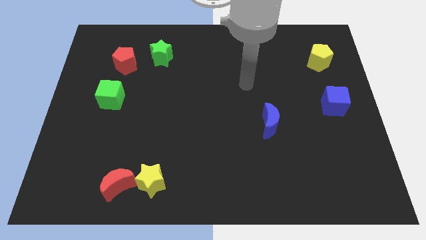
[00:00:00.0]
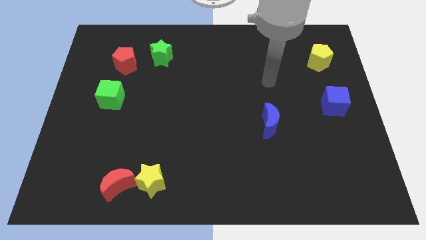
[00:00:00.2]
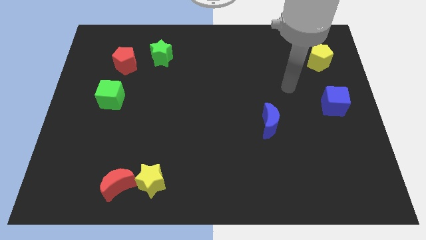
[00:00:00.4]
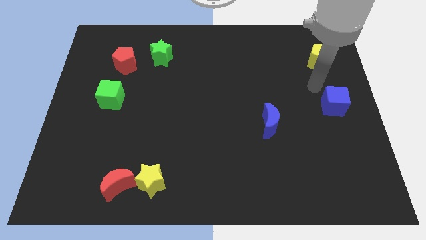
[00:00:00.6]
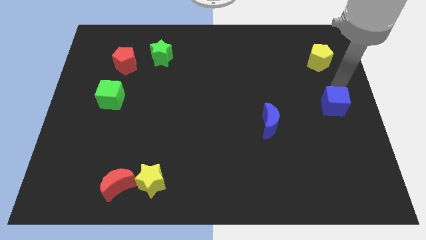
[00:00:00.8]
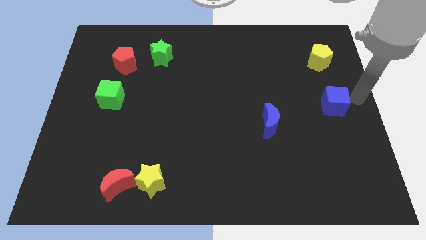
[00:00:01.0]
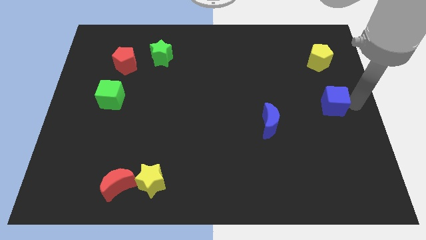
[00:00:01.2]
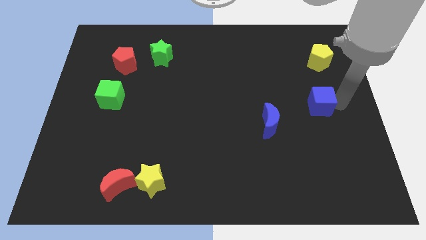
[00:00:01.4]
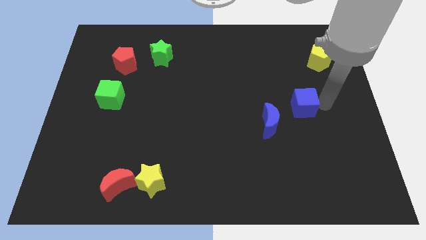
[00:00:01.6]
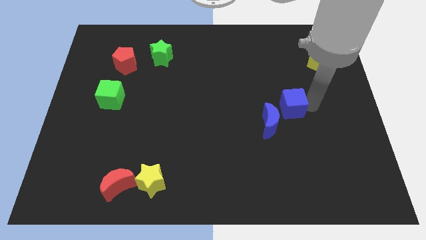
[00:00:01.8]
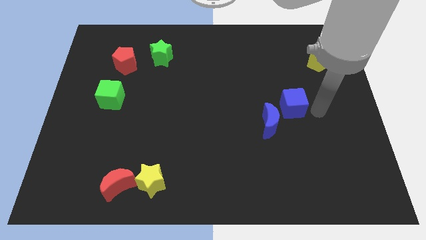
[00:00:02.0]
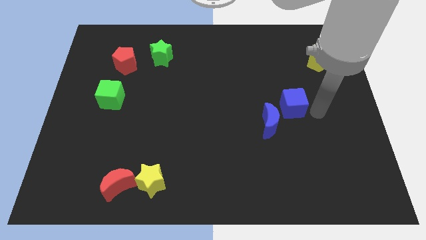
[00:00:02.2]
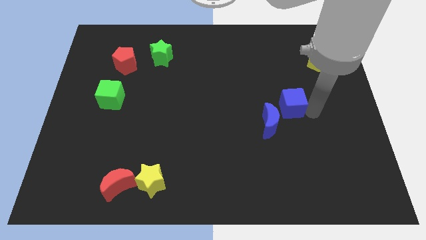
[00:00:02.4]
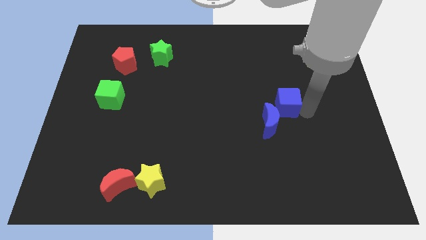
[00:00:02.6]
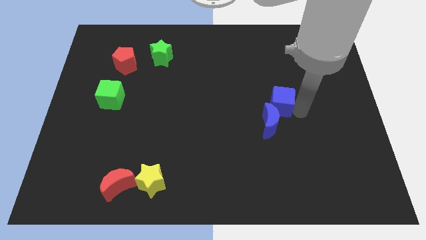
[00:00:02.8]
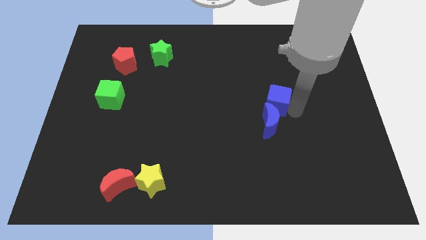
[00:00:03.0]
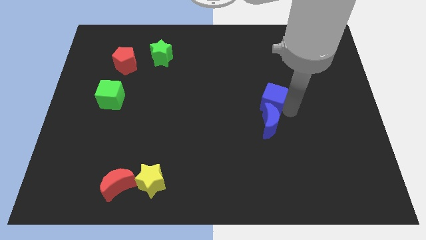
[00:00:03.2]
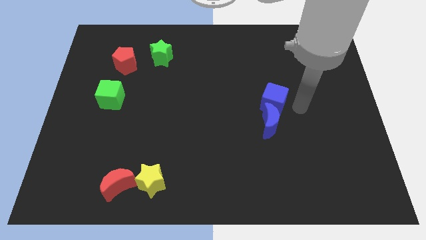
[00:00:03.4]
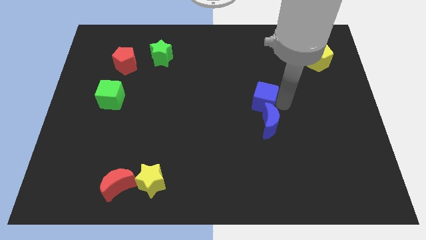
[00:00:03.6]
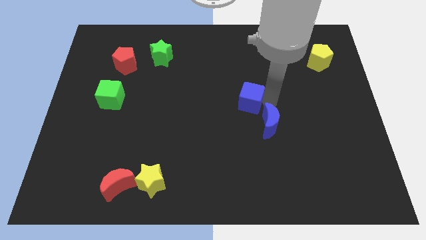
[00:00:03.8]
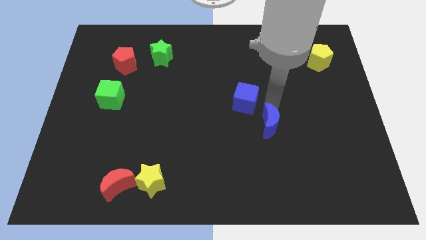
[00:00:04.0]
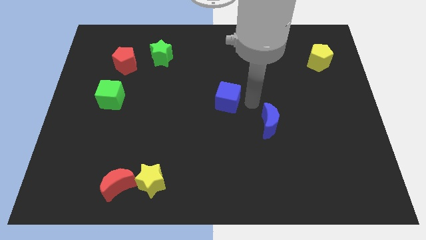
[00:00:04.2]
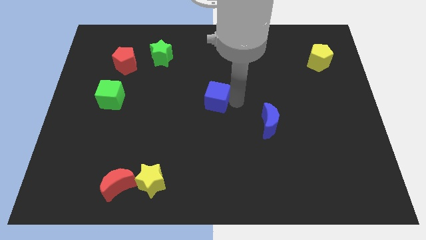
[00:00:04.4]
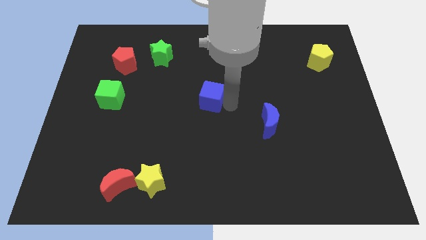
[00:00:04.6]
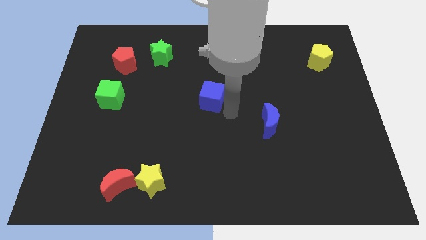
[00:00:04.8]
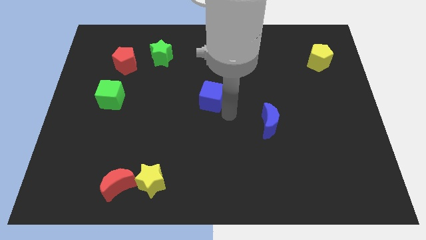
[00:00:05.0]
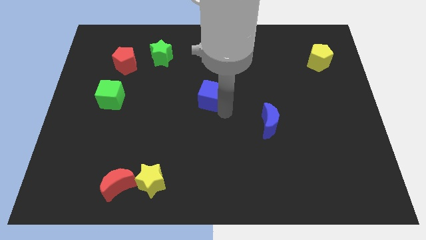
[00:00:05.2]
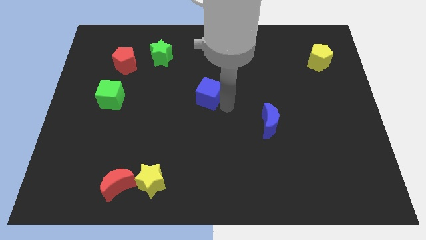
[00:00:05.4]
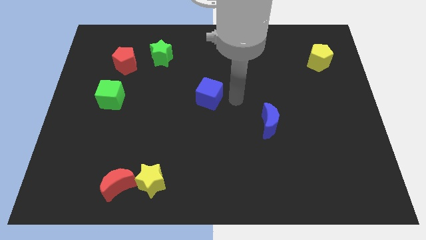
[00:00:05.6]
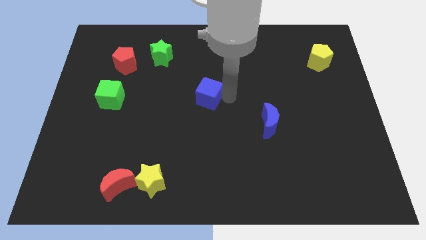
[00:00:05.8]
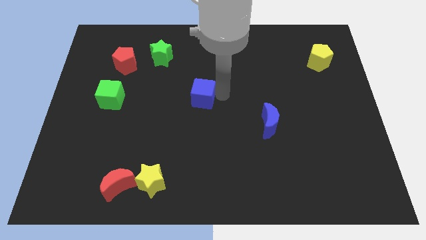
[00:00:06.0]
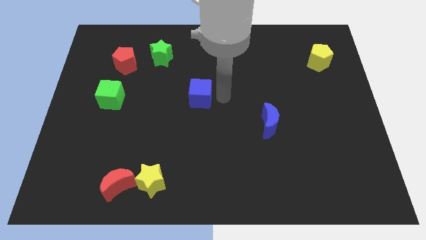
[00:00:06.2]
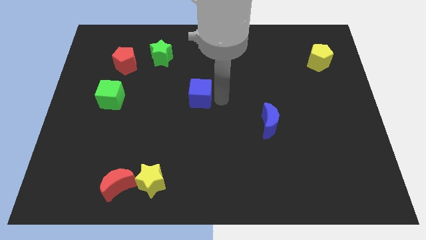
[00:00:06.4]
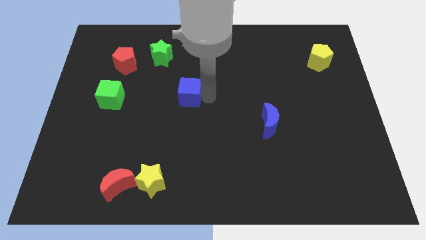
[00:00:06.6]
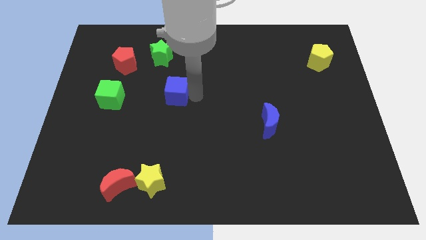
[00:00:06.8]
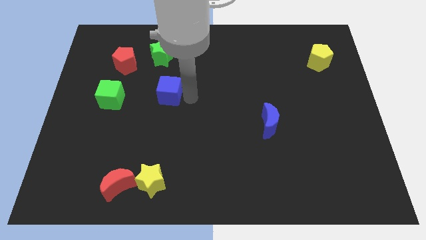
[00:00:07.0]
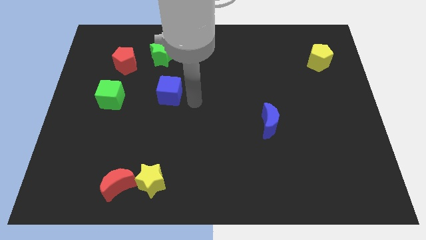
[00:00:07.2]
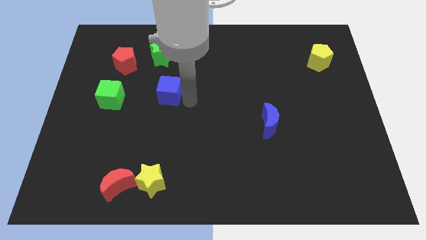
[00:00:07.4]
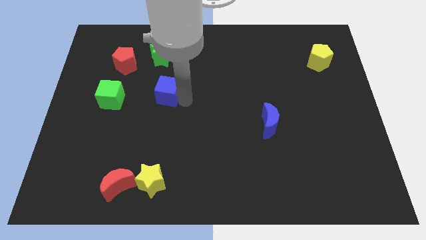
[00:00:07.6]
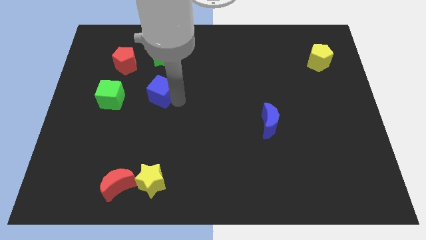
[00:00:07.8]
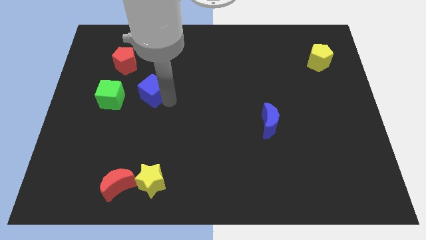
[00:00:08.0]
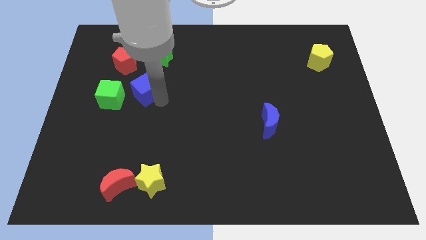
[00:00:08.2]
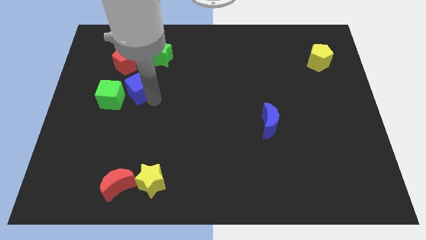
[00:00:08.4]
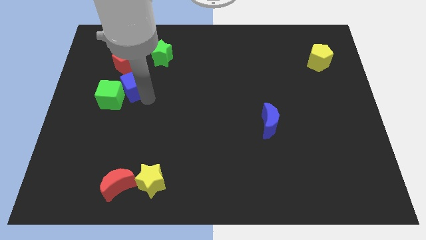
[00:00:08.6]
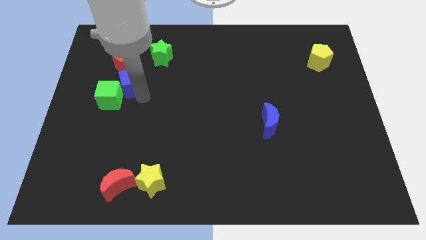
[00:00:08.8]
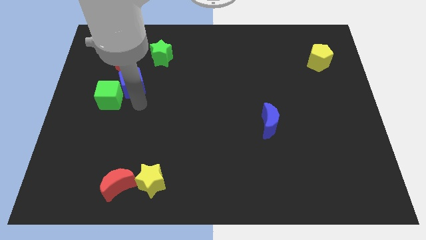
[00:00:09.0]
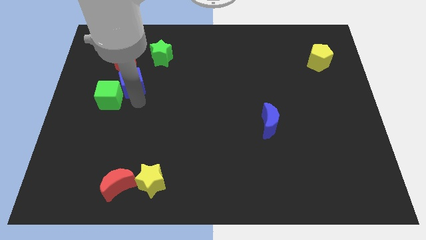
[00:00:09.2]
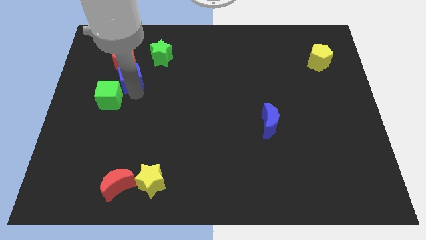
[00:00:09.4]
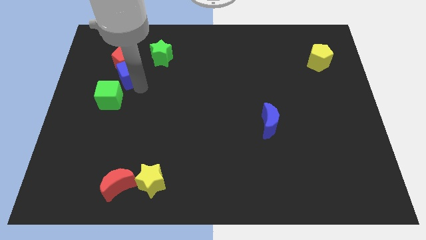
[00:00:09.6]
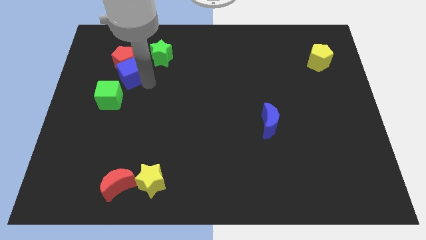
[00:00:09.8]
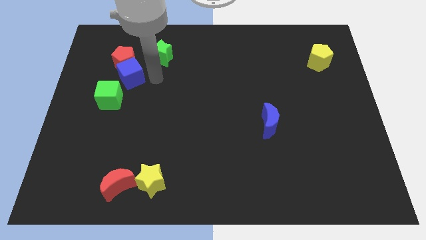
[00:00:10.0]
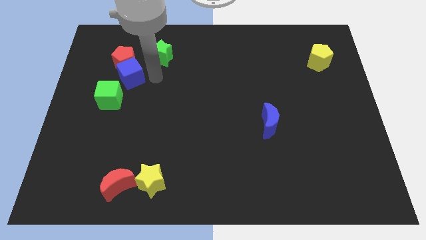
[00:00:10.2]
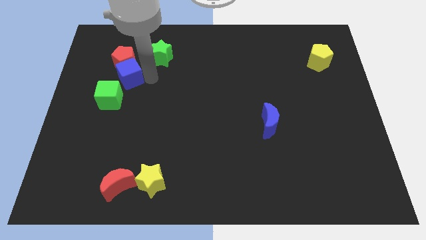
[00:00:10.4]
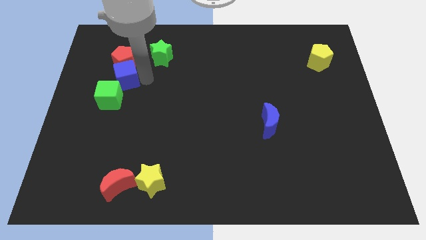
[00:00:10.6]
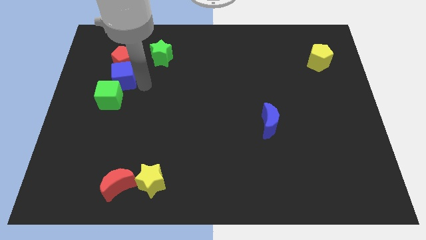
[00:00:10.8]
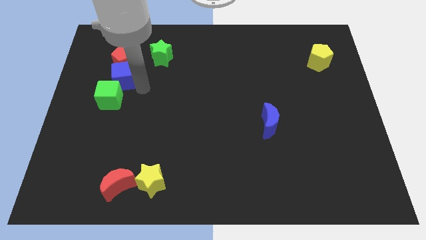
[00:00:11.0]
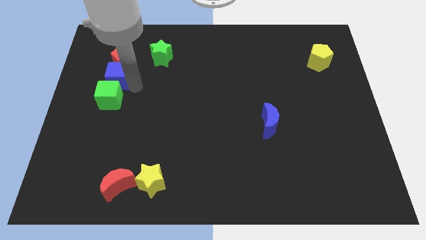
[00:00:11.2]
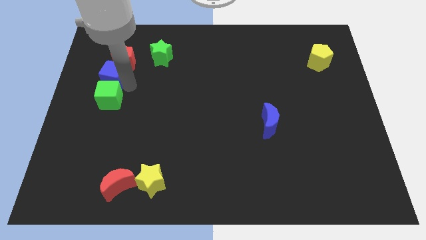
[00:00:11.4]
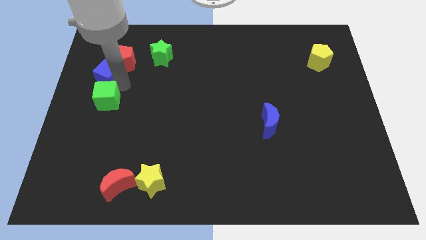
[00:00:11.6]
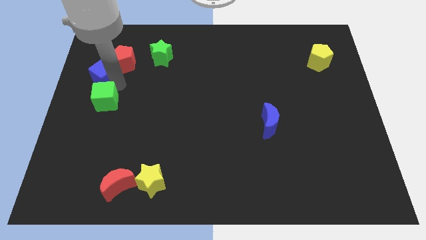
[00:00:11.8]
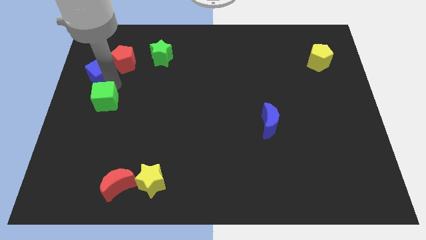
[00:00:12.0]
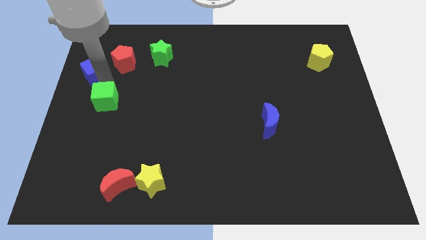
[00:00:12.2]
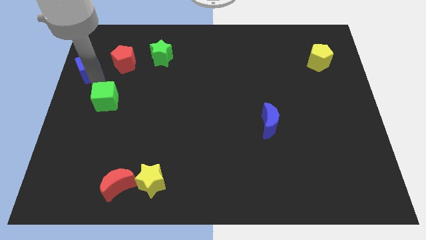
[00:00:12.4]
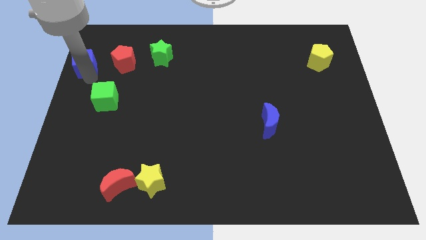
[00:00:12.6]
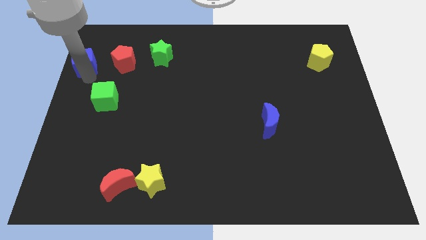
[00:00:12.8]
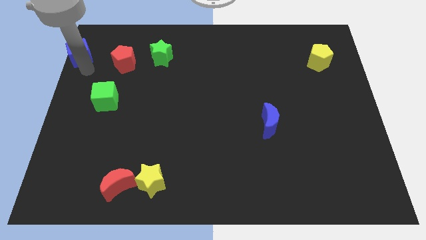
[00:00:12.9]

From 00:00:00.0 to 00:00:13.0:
push the blue cube to the top left corner

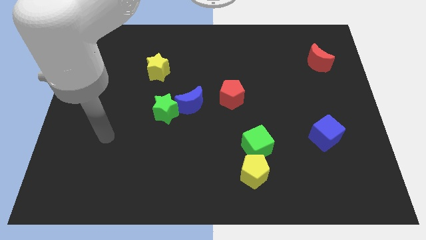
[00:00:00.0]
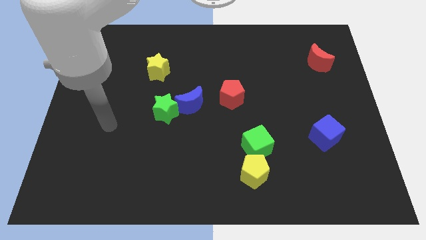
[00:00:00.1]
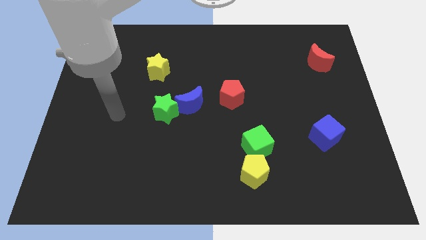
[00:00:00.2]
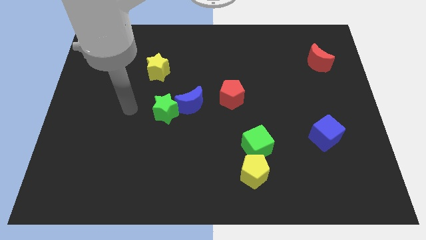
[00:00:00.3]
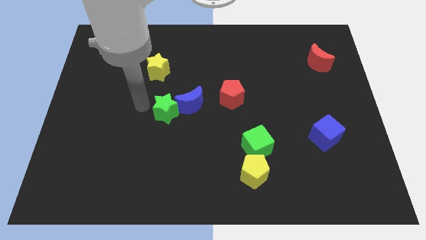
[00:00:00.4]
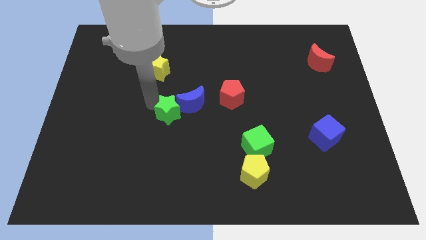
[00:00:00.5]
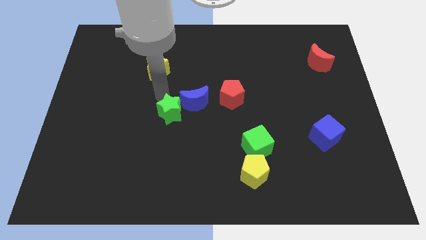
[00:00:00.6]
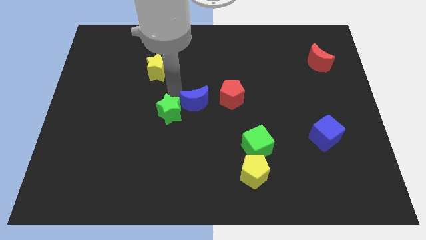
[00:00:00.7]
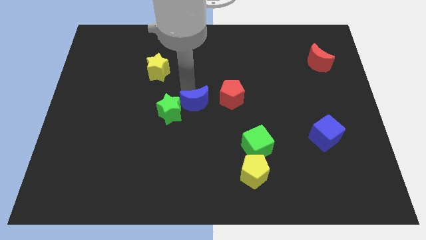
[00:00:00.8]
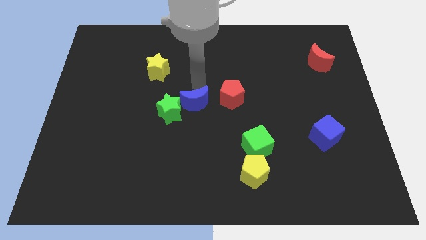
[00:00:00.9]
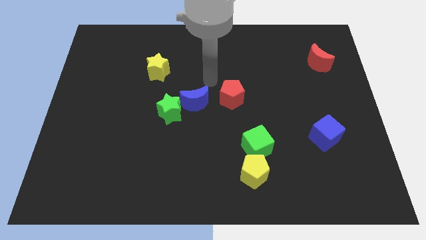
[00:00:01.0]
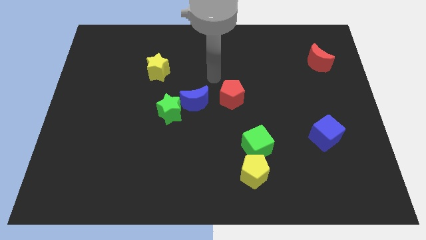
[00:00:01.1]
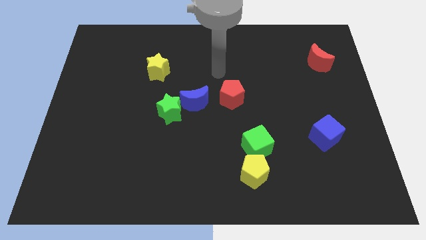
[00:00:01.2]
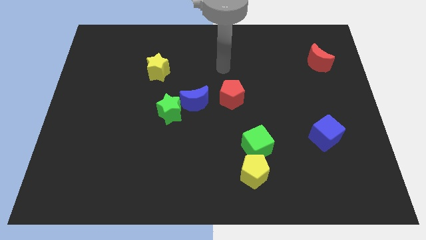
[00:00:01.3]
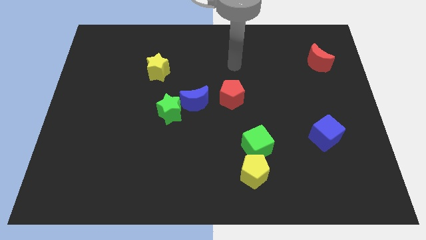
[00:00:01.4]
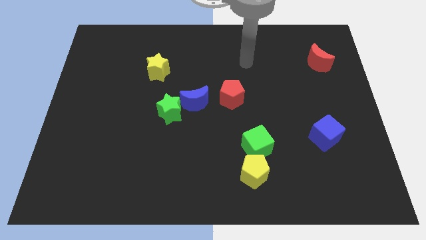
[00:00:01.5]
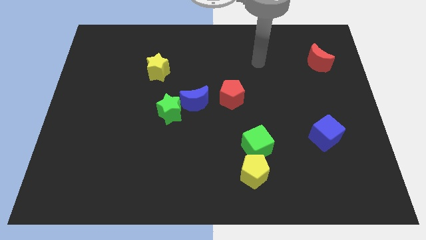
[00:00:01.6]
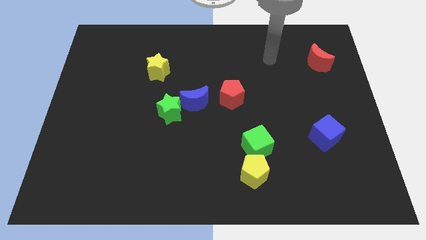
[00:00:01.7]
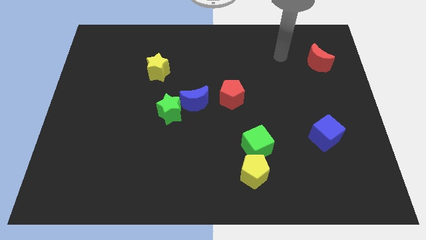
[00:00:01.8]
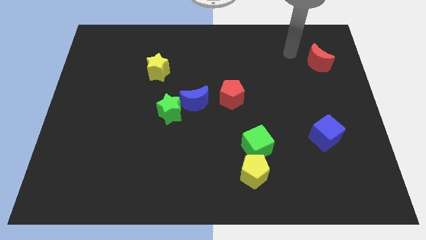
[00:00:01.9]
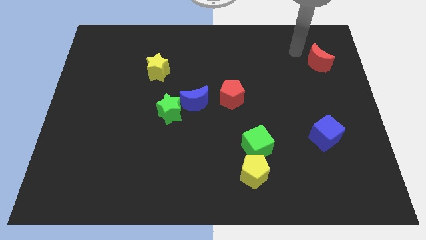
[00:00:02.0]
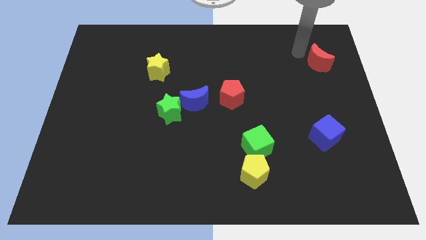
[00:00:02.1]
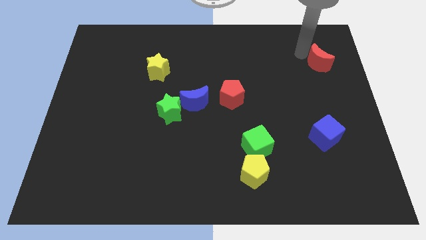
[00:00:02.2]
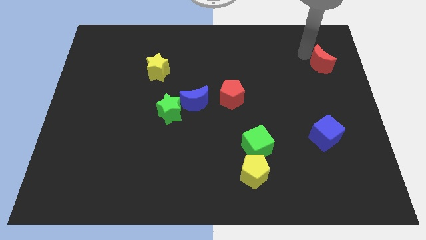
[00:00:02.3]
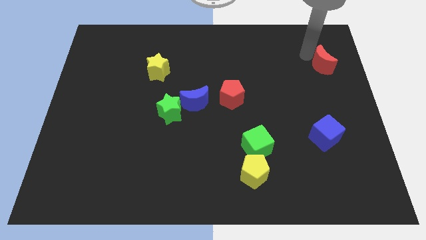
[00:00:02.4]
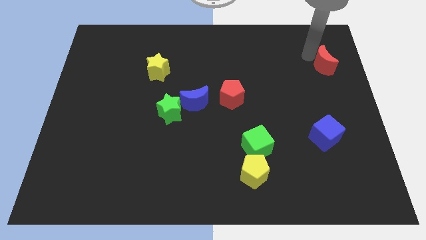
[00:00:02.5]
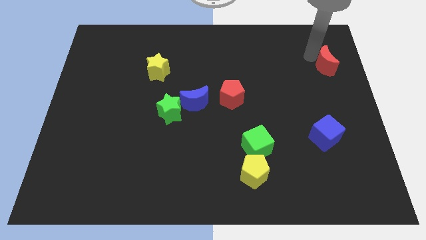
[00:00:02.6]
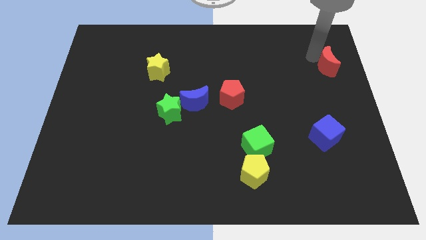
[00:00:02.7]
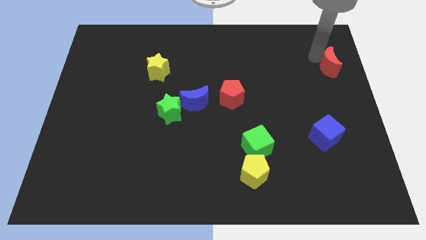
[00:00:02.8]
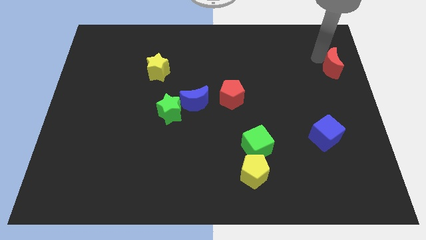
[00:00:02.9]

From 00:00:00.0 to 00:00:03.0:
slide the red moon to the right side of the board
